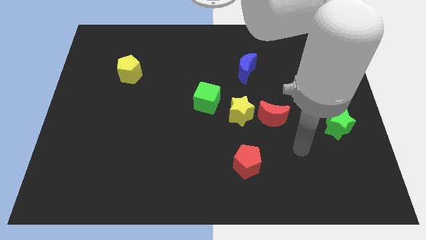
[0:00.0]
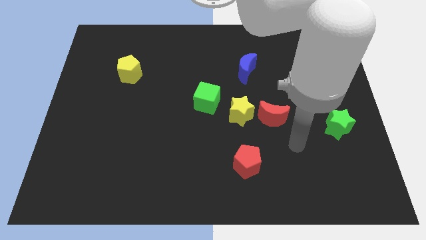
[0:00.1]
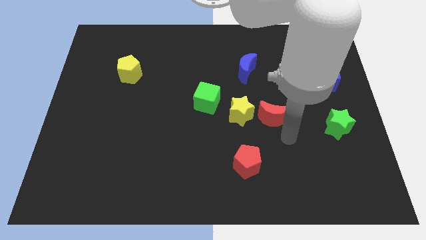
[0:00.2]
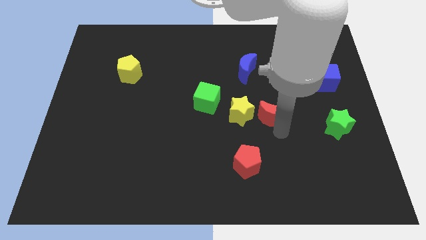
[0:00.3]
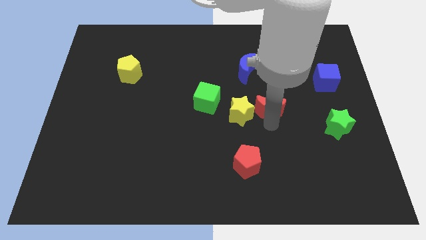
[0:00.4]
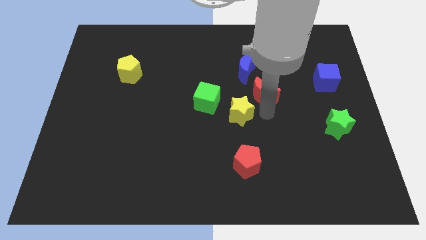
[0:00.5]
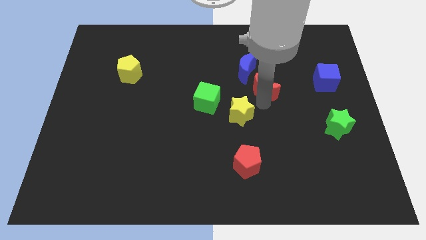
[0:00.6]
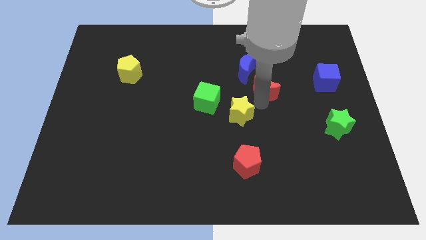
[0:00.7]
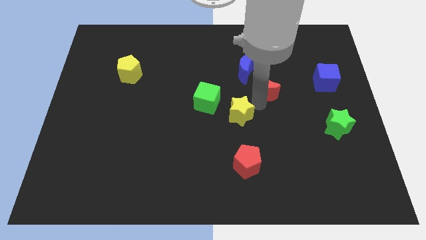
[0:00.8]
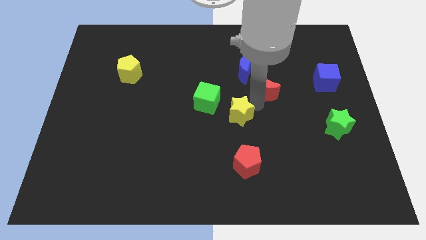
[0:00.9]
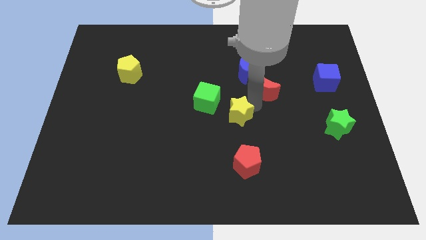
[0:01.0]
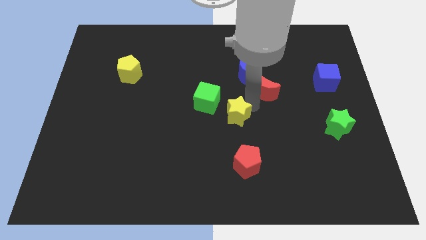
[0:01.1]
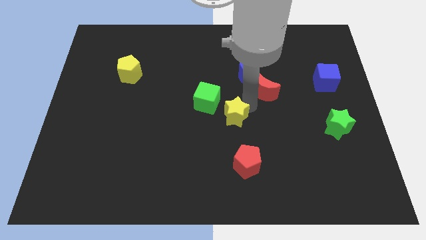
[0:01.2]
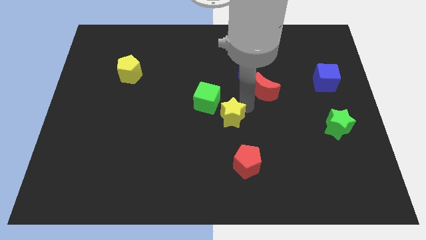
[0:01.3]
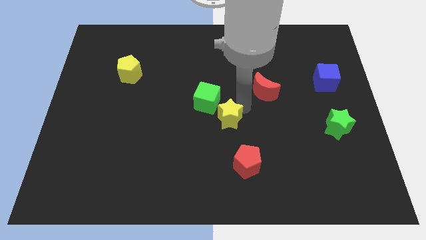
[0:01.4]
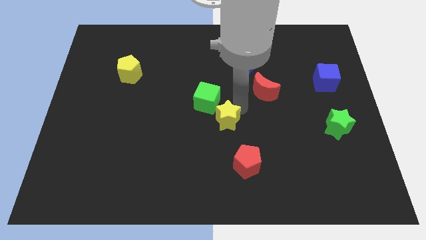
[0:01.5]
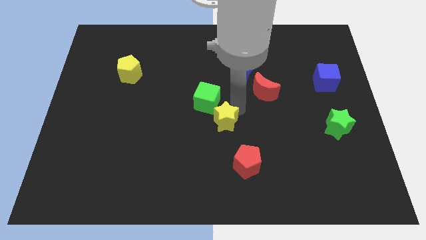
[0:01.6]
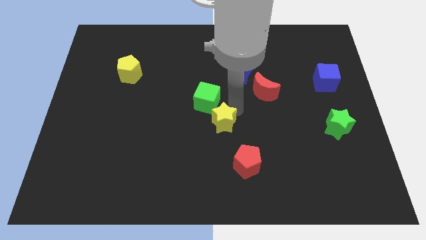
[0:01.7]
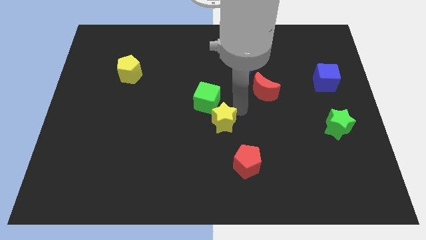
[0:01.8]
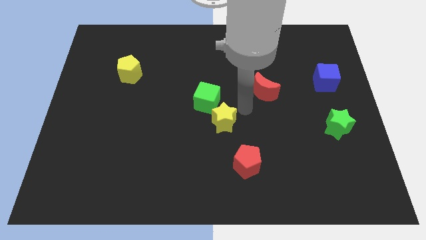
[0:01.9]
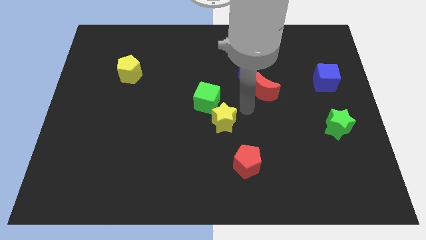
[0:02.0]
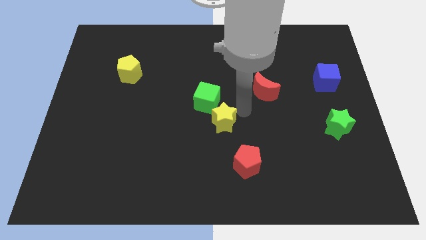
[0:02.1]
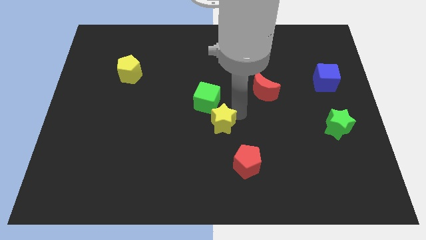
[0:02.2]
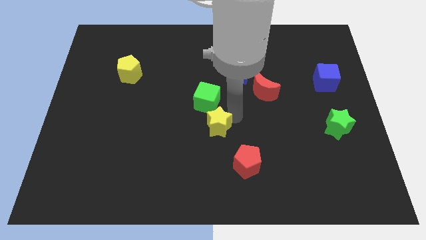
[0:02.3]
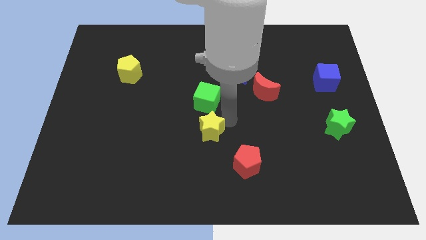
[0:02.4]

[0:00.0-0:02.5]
slightly slide the yellow star diagonally down and to the left

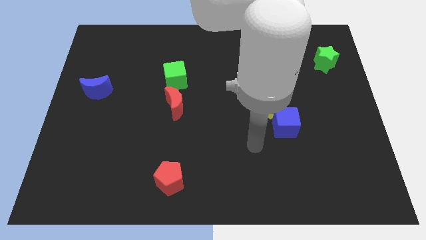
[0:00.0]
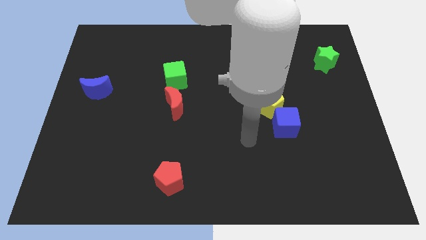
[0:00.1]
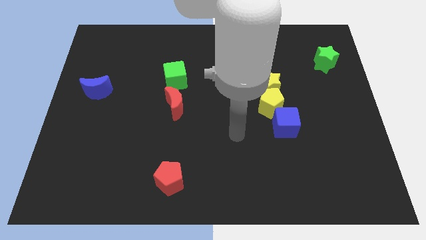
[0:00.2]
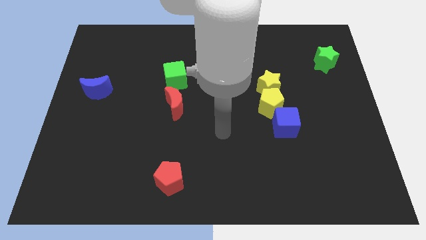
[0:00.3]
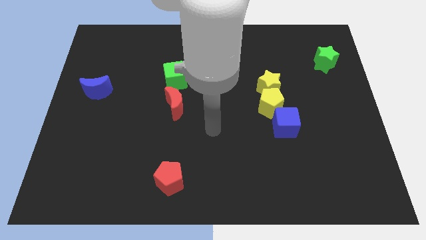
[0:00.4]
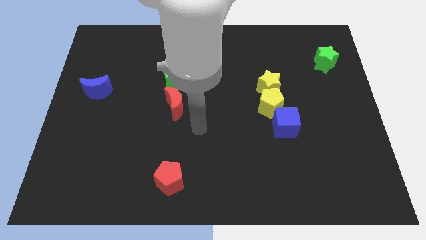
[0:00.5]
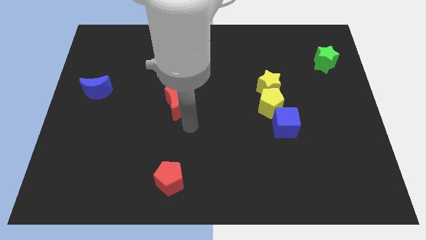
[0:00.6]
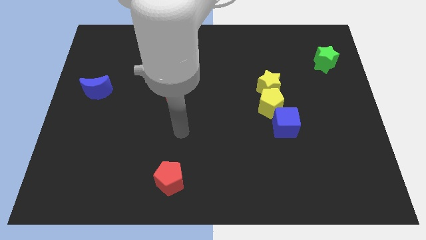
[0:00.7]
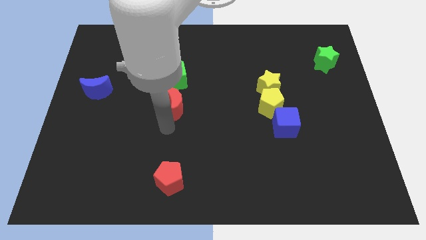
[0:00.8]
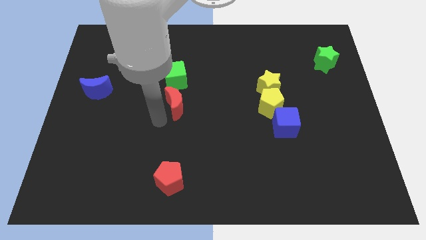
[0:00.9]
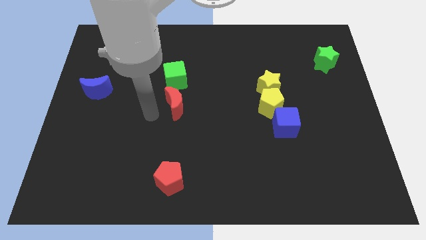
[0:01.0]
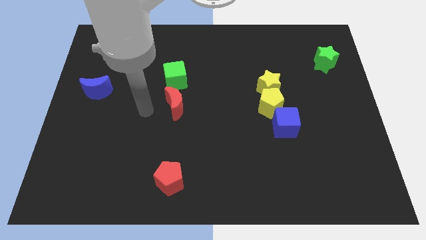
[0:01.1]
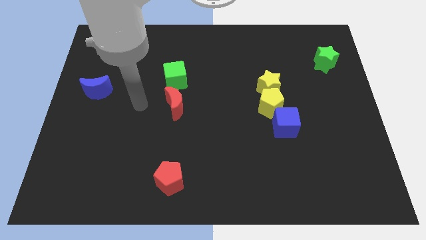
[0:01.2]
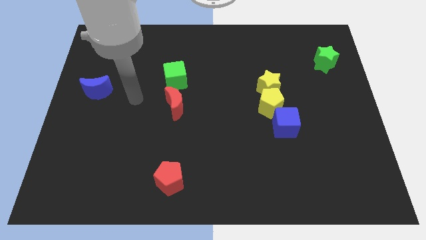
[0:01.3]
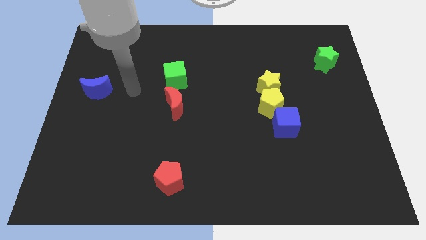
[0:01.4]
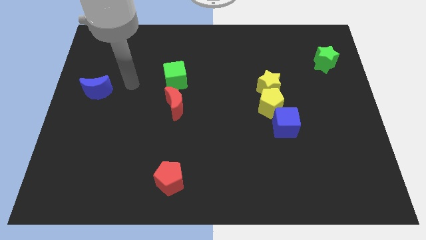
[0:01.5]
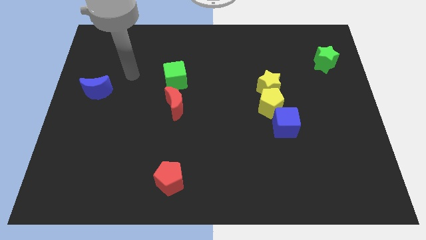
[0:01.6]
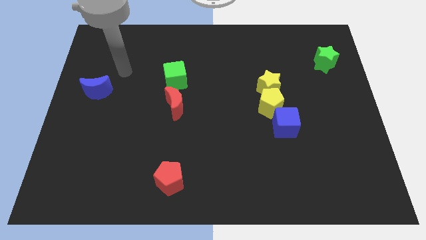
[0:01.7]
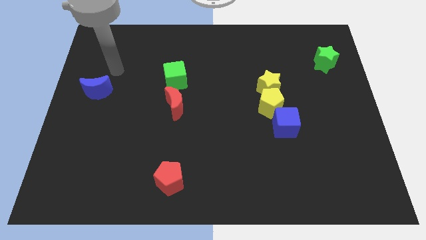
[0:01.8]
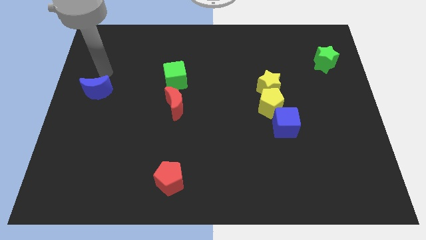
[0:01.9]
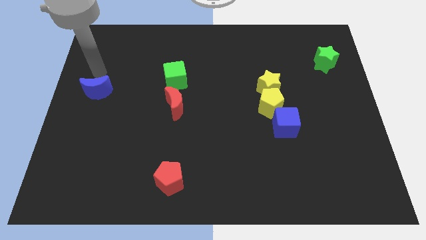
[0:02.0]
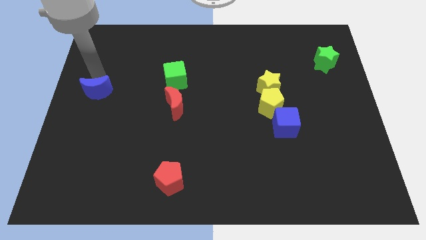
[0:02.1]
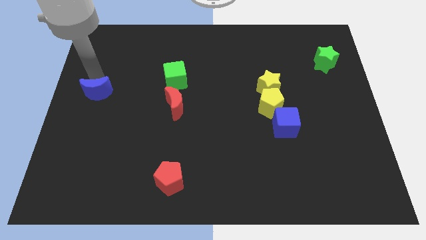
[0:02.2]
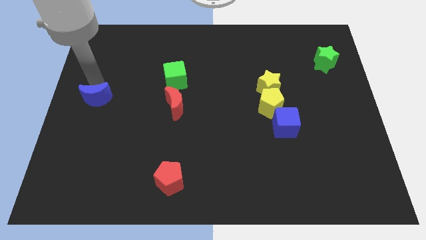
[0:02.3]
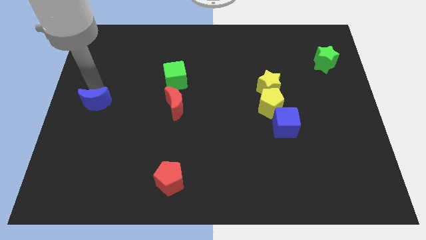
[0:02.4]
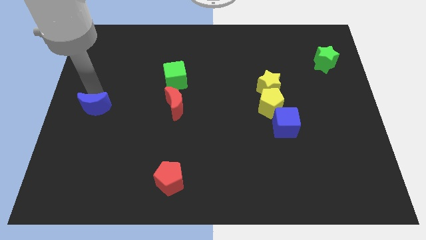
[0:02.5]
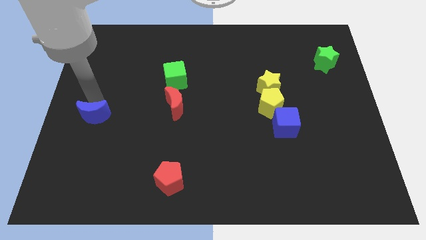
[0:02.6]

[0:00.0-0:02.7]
move the blue moon downwards a little

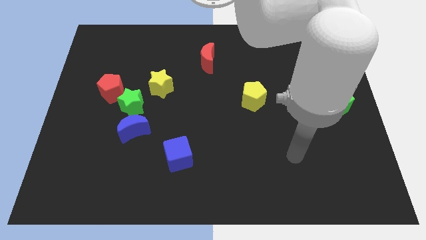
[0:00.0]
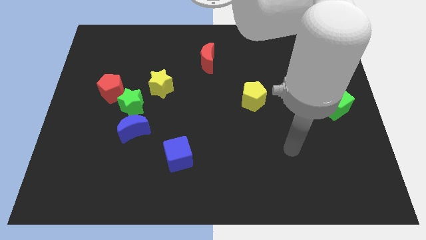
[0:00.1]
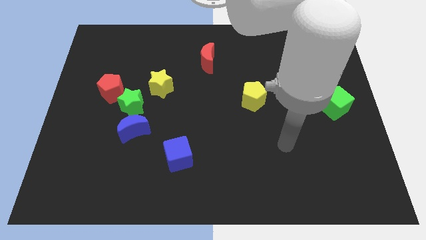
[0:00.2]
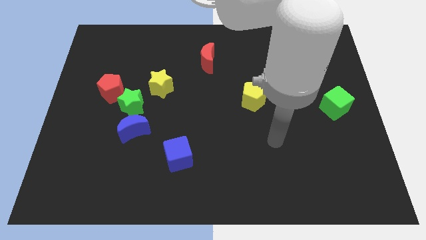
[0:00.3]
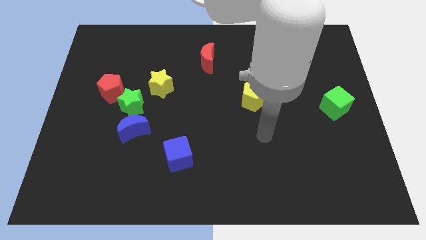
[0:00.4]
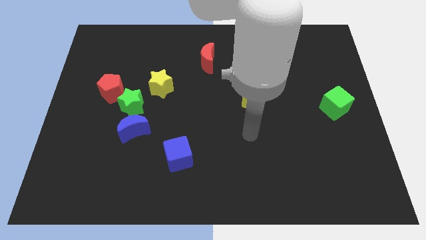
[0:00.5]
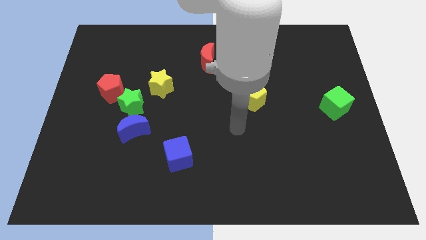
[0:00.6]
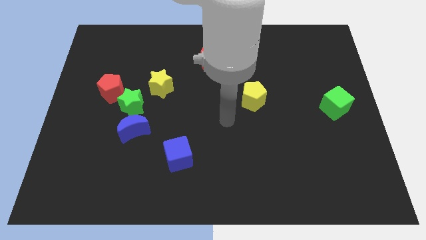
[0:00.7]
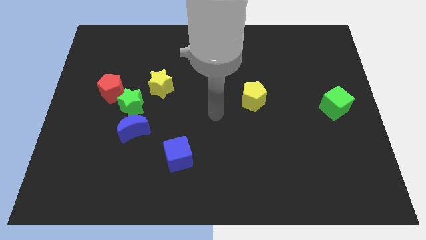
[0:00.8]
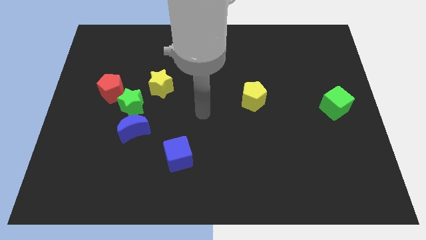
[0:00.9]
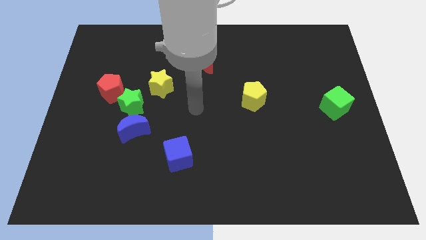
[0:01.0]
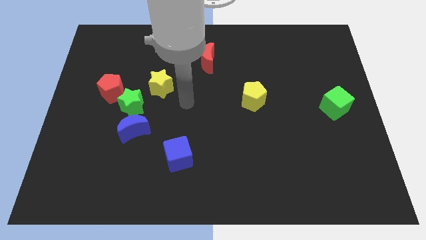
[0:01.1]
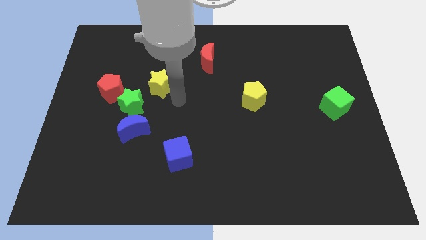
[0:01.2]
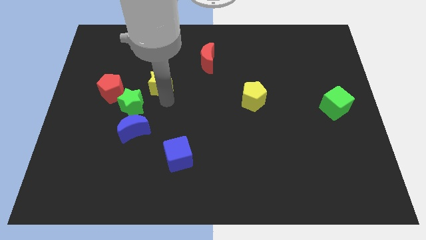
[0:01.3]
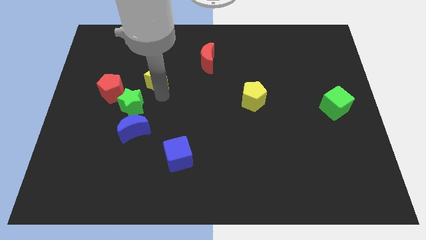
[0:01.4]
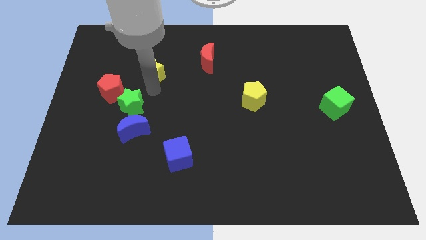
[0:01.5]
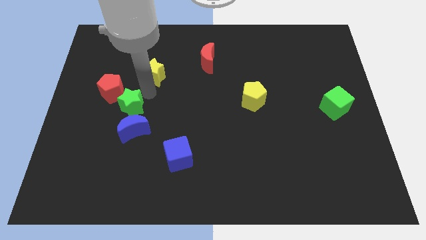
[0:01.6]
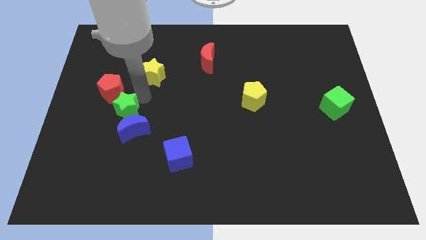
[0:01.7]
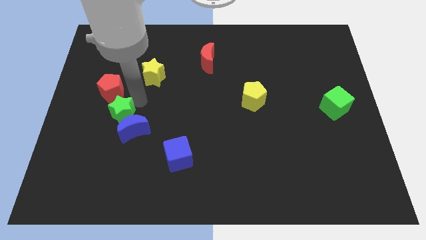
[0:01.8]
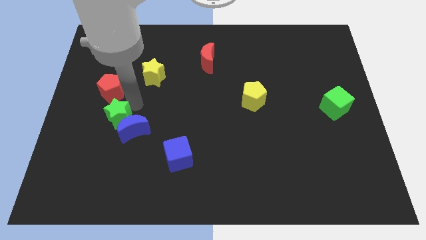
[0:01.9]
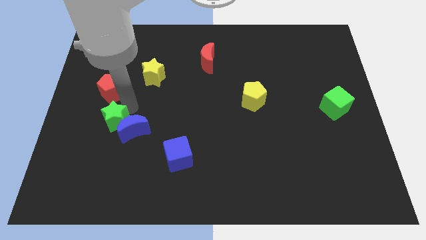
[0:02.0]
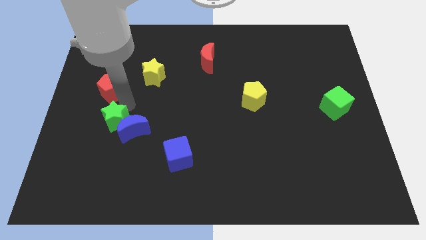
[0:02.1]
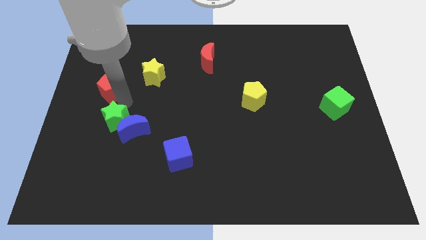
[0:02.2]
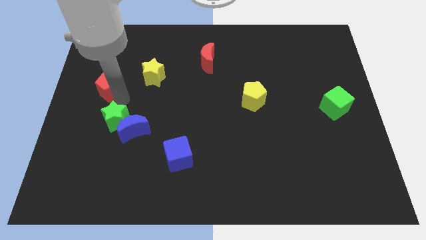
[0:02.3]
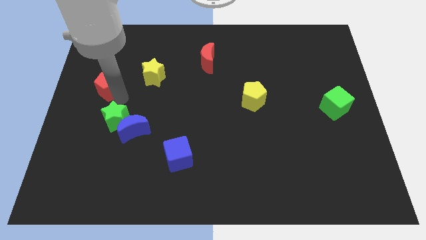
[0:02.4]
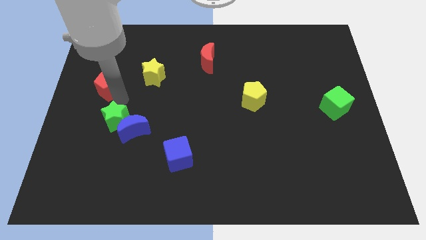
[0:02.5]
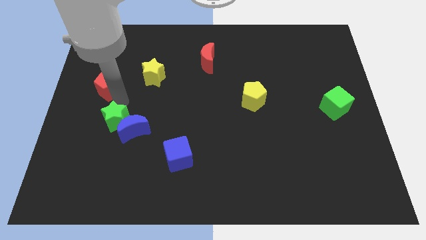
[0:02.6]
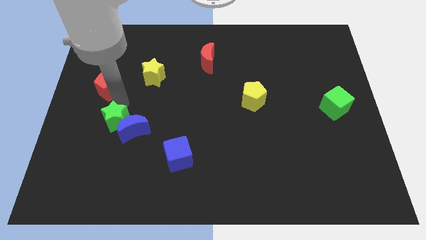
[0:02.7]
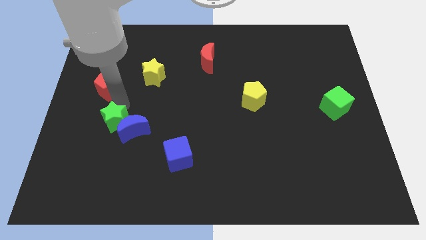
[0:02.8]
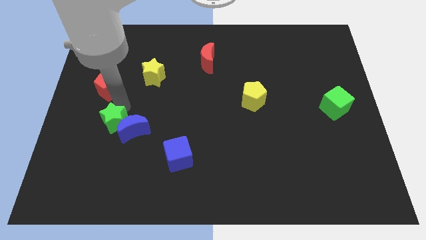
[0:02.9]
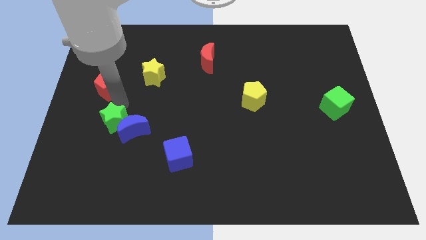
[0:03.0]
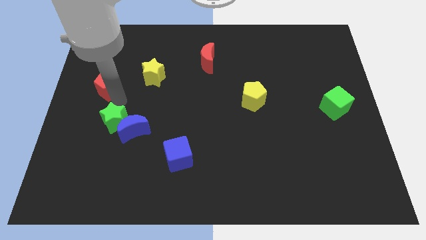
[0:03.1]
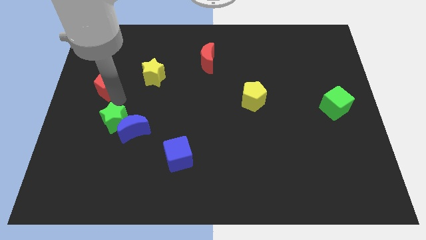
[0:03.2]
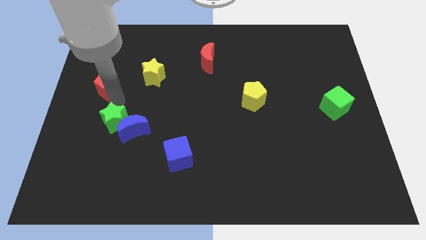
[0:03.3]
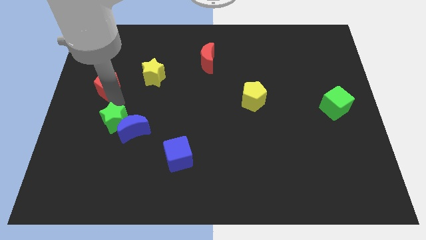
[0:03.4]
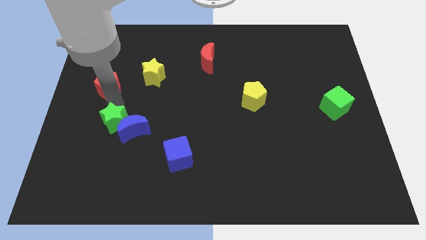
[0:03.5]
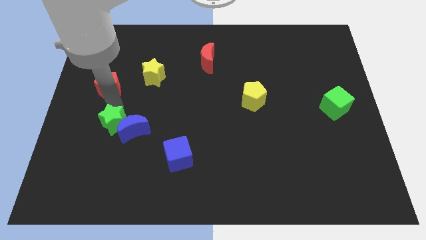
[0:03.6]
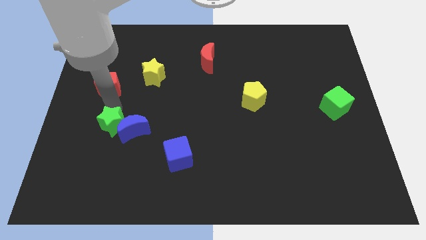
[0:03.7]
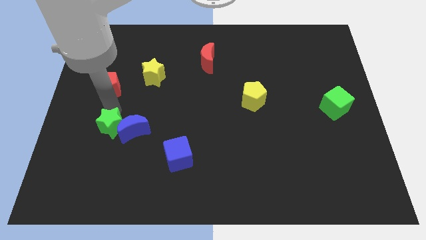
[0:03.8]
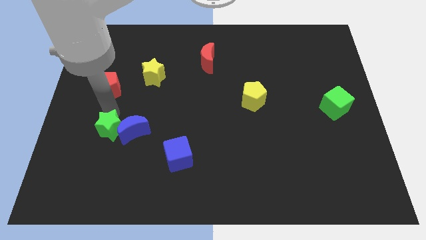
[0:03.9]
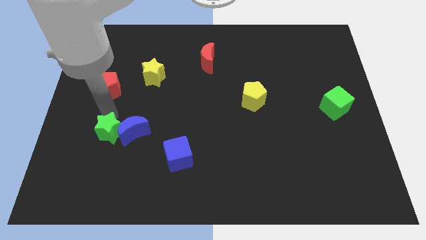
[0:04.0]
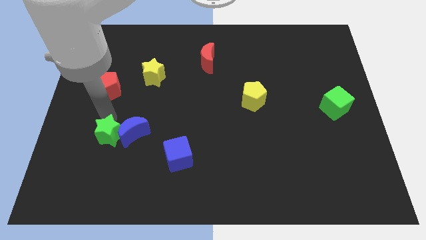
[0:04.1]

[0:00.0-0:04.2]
slightly slide the green star down
